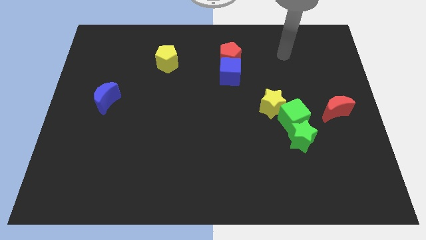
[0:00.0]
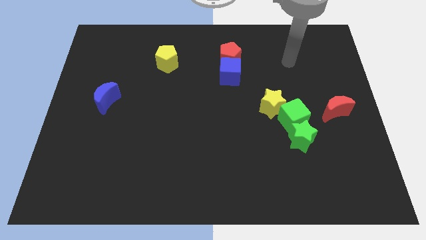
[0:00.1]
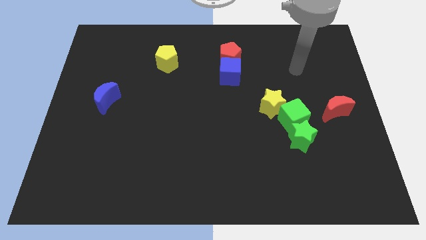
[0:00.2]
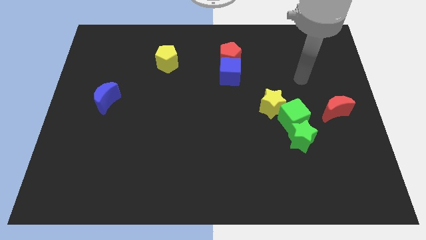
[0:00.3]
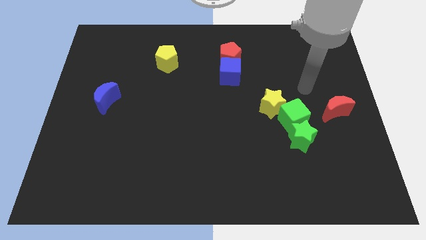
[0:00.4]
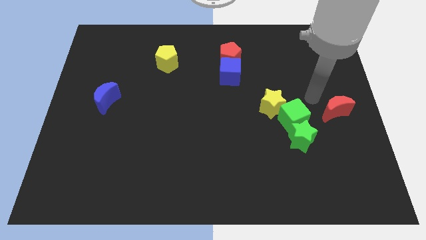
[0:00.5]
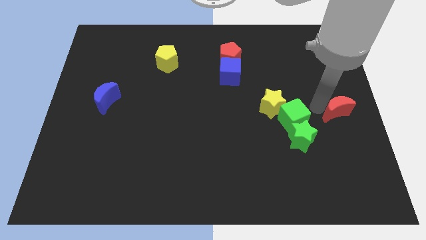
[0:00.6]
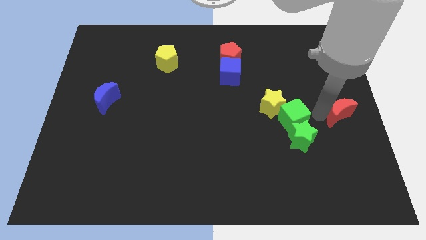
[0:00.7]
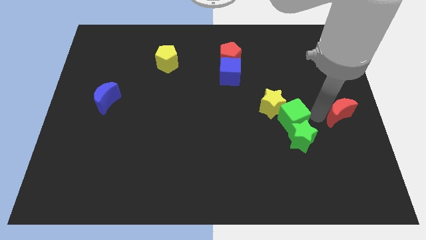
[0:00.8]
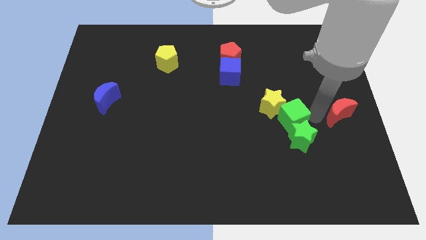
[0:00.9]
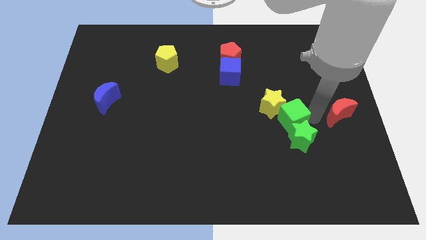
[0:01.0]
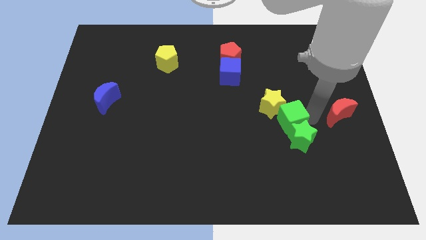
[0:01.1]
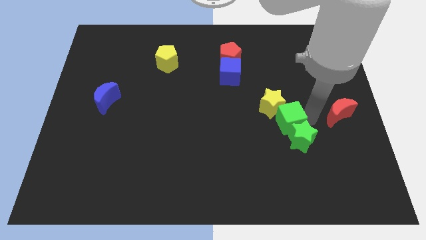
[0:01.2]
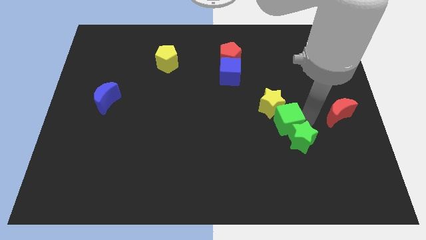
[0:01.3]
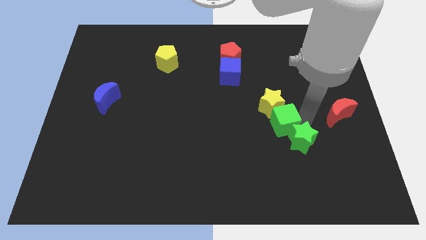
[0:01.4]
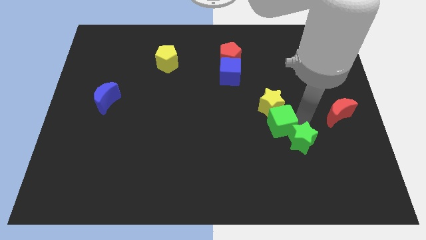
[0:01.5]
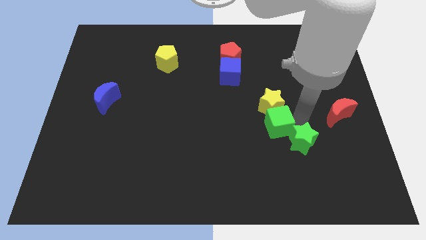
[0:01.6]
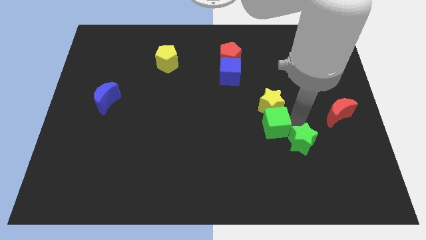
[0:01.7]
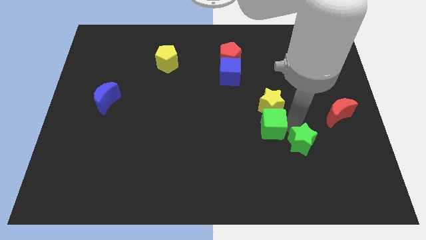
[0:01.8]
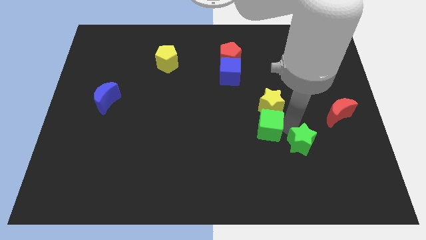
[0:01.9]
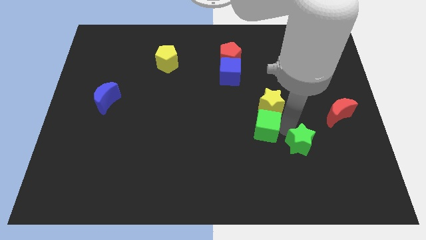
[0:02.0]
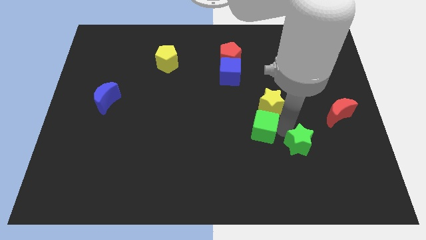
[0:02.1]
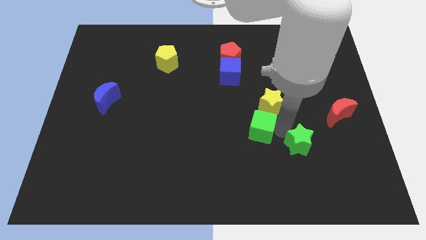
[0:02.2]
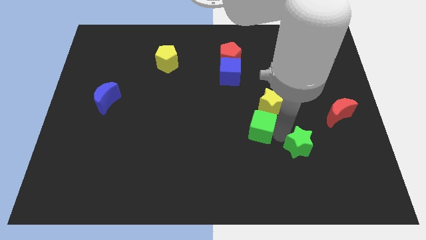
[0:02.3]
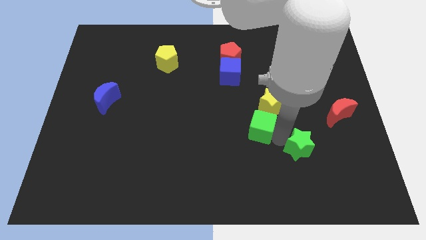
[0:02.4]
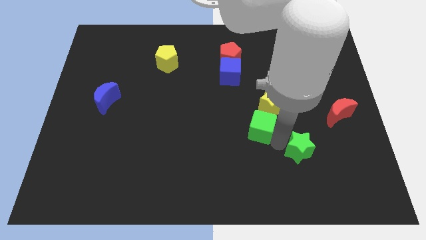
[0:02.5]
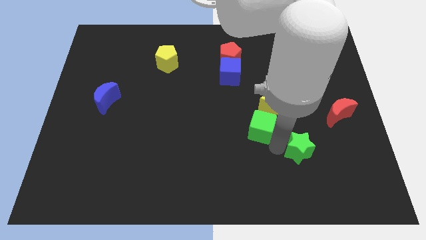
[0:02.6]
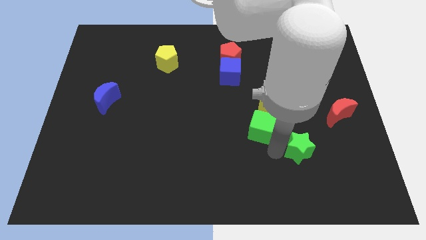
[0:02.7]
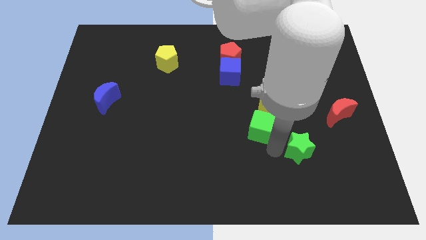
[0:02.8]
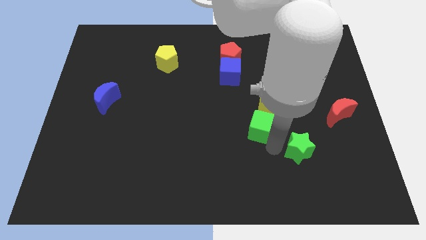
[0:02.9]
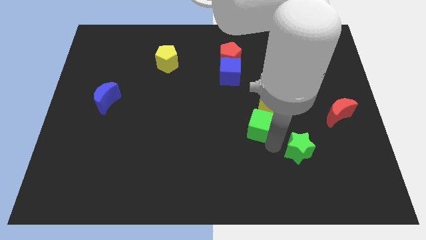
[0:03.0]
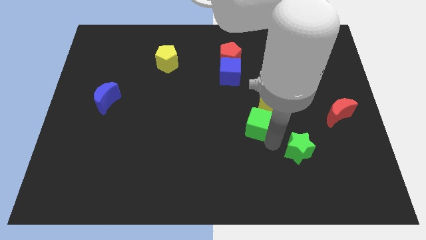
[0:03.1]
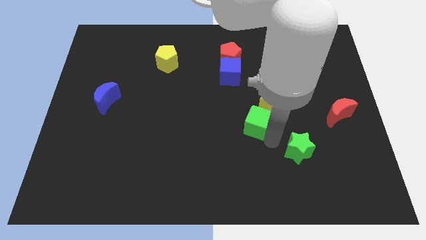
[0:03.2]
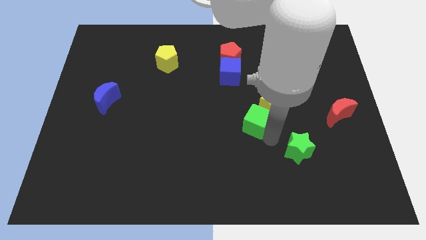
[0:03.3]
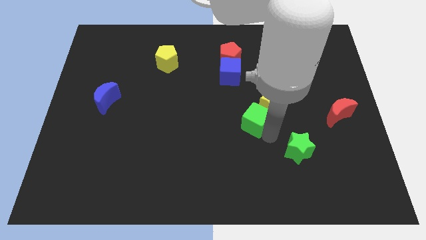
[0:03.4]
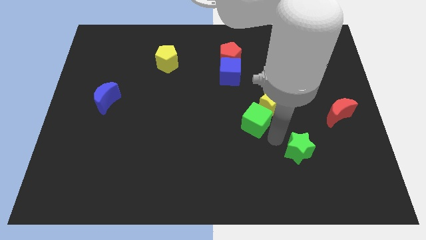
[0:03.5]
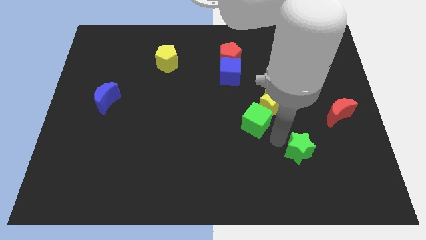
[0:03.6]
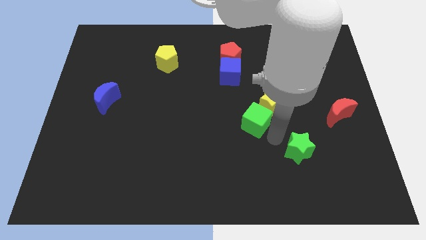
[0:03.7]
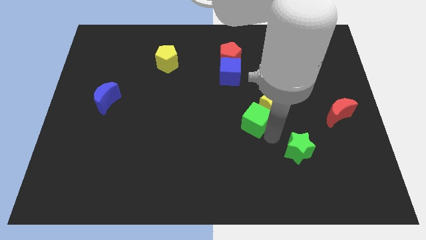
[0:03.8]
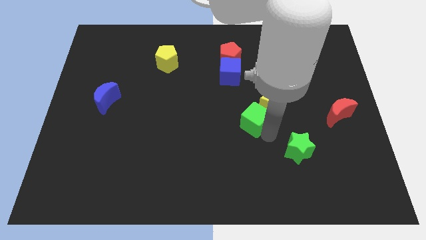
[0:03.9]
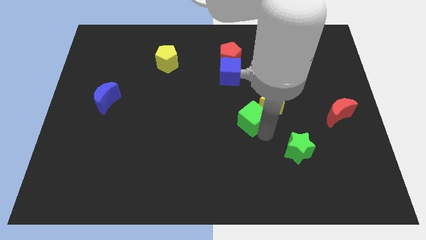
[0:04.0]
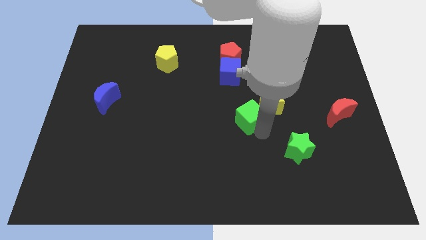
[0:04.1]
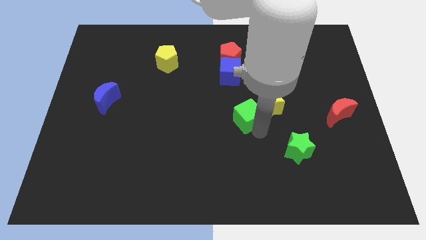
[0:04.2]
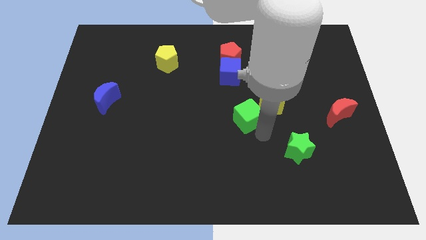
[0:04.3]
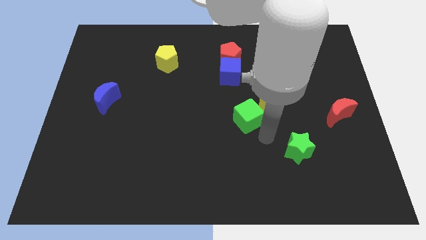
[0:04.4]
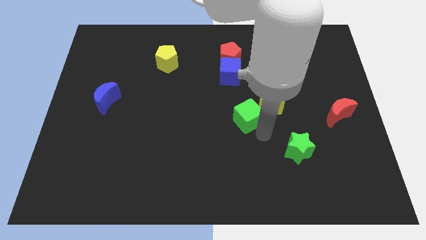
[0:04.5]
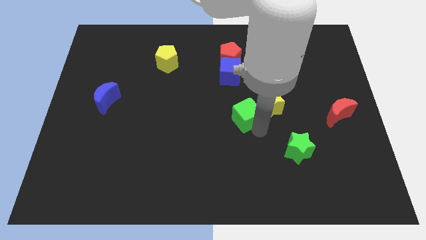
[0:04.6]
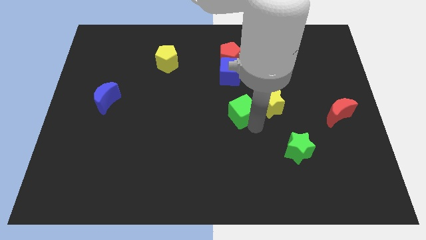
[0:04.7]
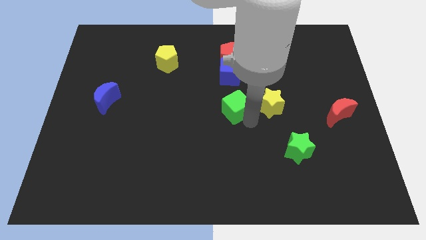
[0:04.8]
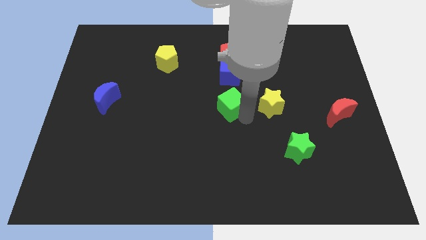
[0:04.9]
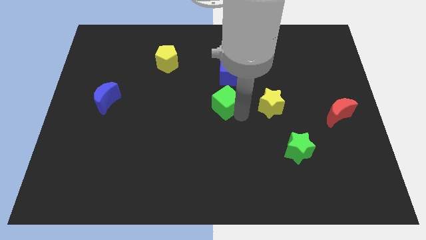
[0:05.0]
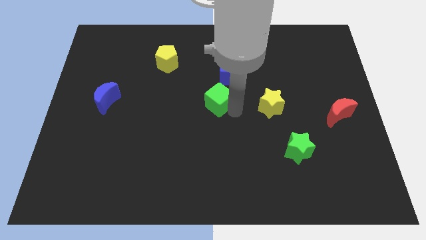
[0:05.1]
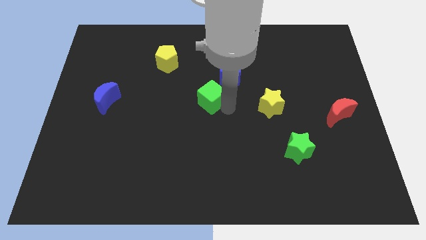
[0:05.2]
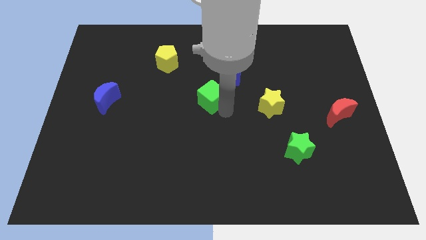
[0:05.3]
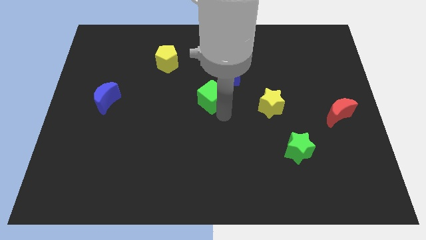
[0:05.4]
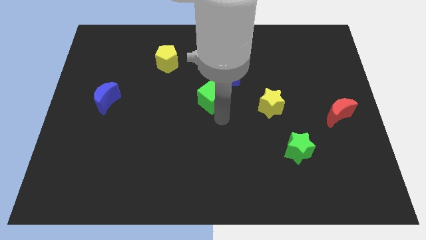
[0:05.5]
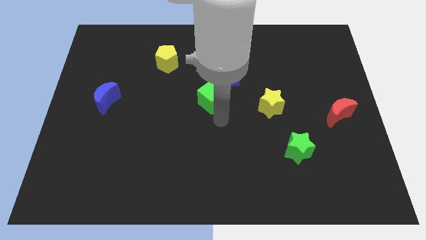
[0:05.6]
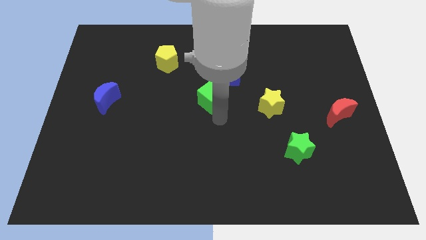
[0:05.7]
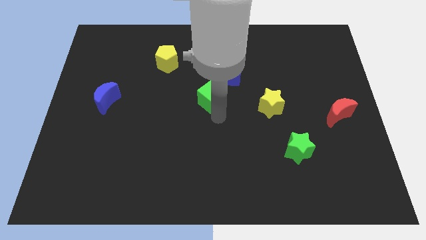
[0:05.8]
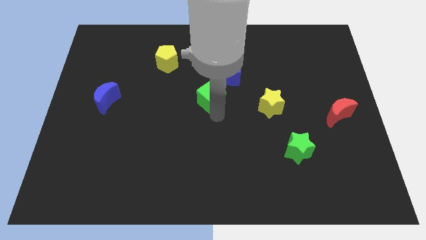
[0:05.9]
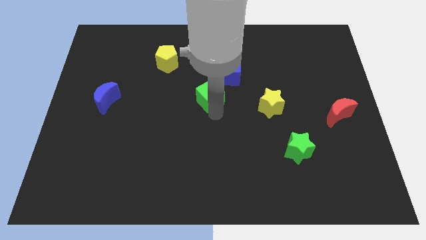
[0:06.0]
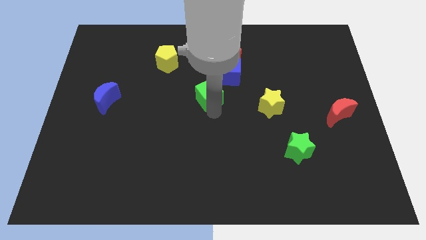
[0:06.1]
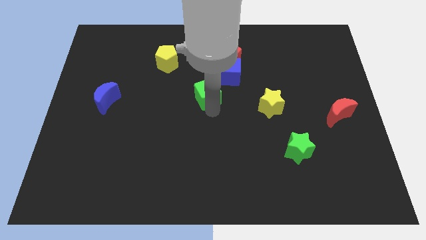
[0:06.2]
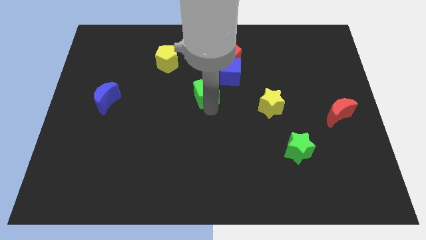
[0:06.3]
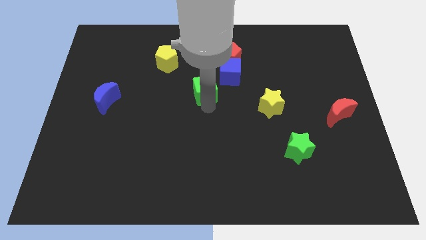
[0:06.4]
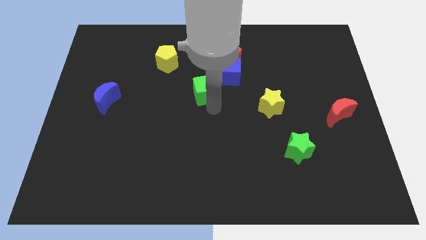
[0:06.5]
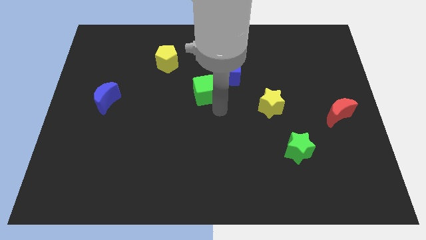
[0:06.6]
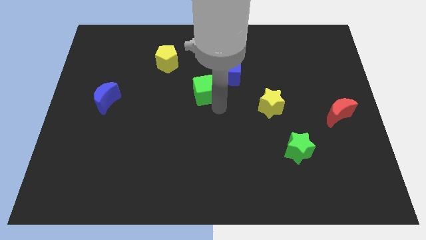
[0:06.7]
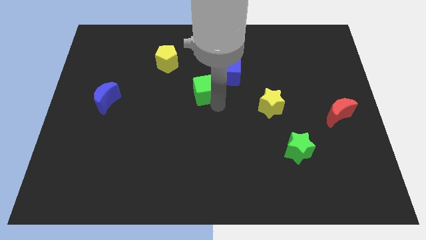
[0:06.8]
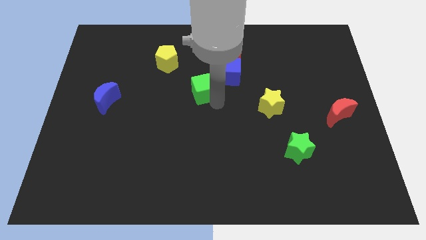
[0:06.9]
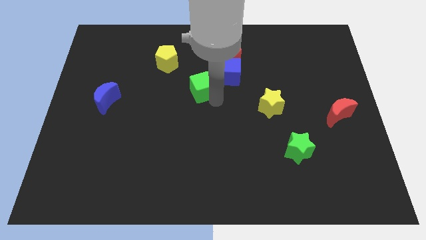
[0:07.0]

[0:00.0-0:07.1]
push the green cube to the left of the blue cube

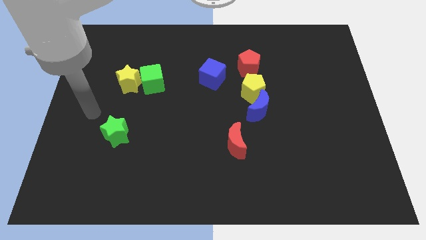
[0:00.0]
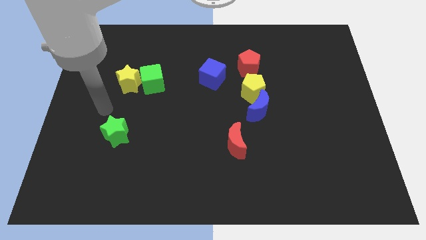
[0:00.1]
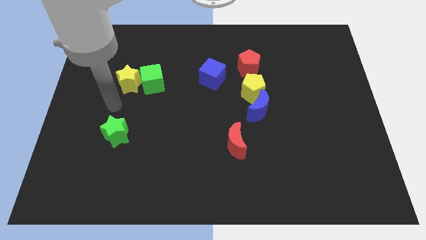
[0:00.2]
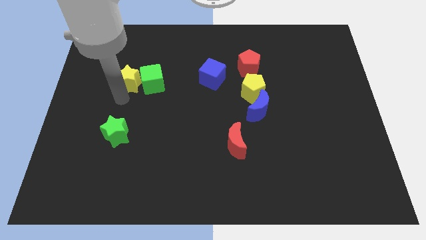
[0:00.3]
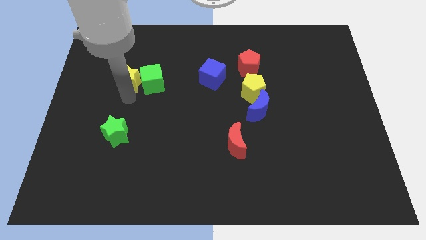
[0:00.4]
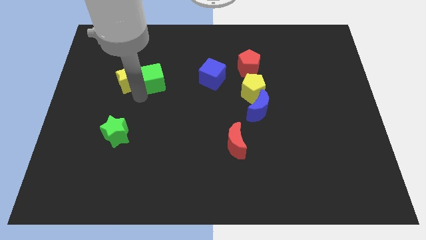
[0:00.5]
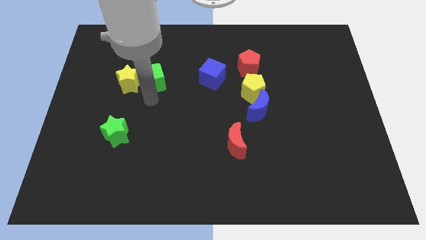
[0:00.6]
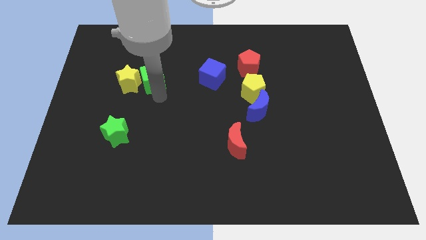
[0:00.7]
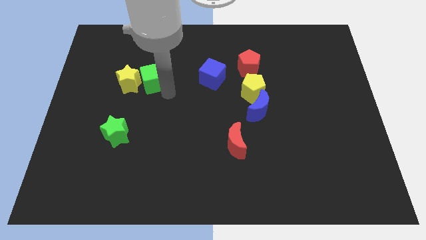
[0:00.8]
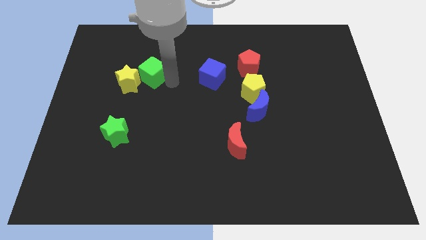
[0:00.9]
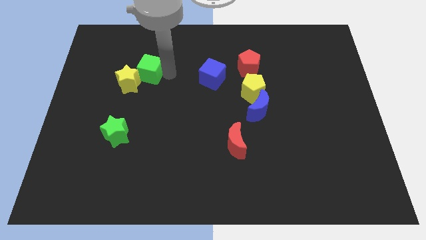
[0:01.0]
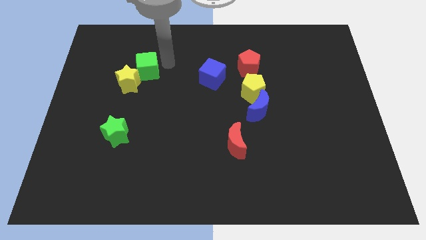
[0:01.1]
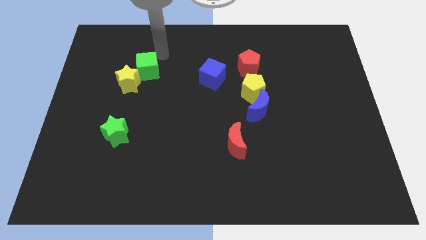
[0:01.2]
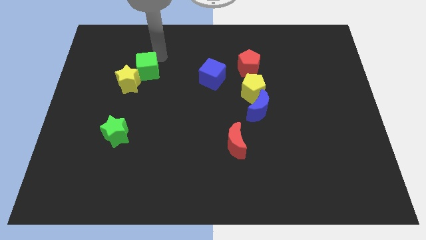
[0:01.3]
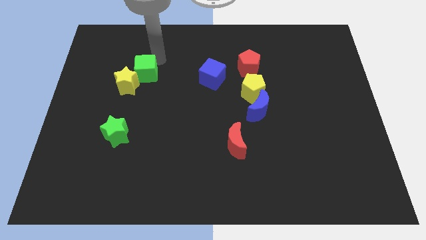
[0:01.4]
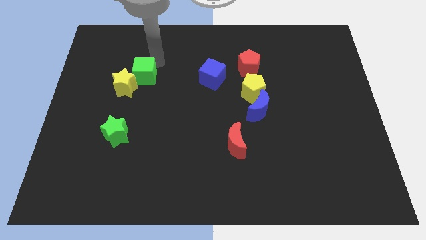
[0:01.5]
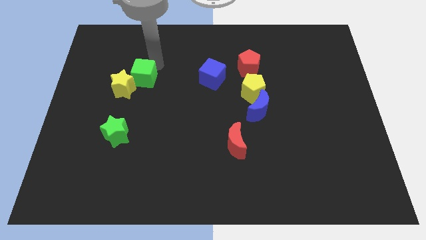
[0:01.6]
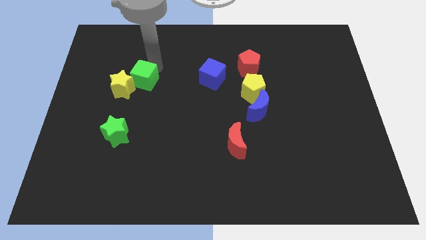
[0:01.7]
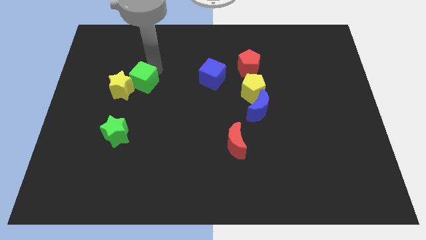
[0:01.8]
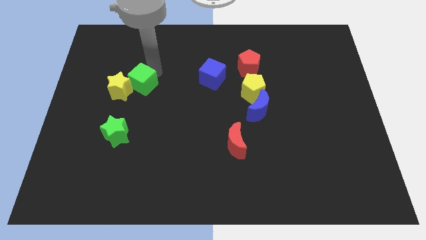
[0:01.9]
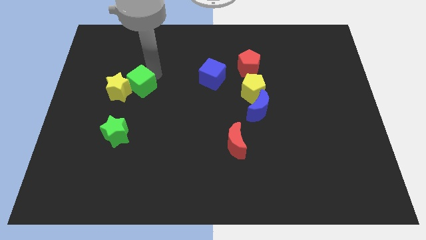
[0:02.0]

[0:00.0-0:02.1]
slide the green cube to the top of the green star
